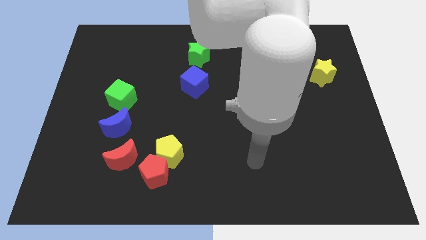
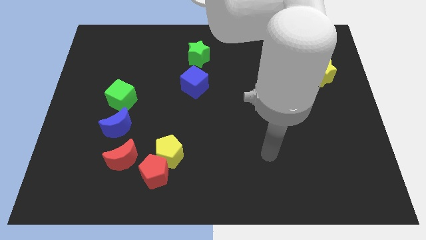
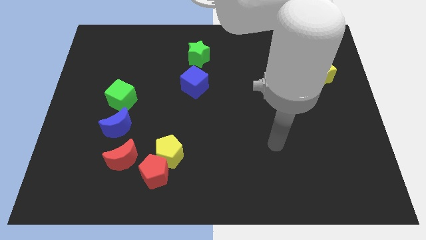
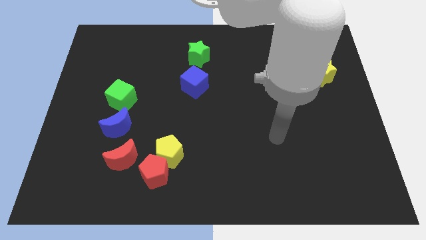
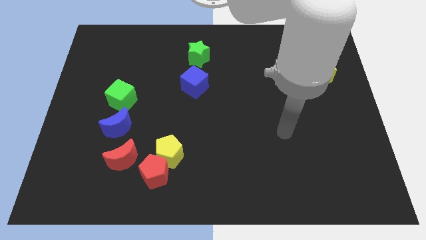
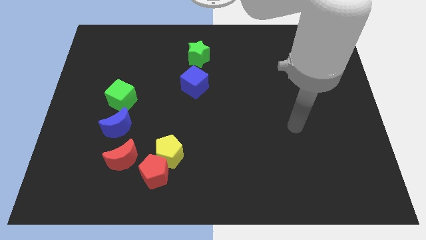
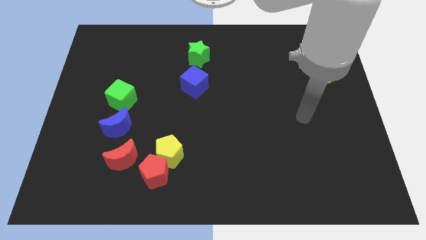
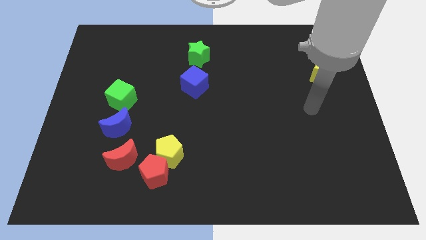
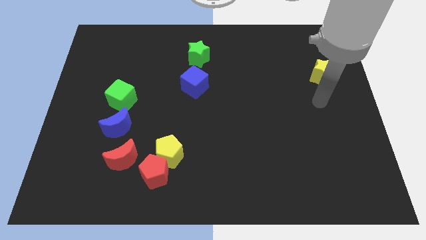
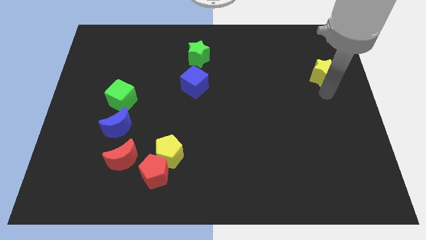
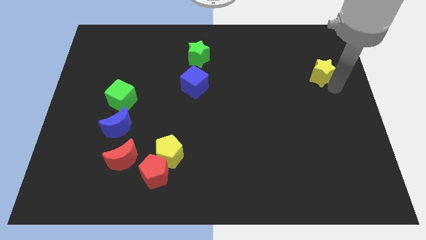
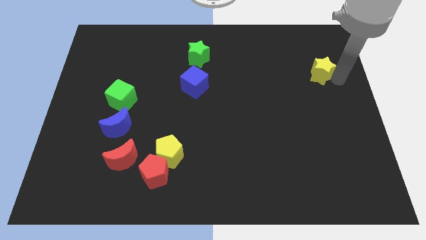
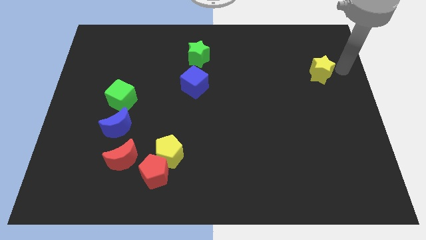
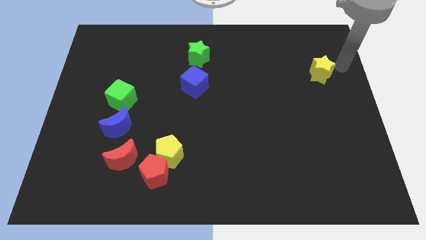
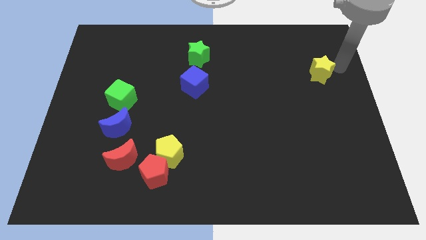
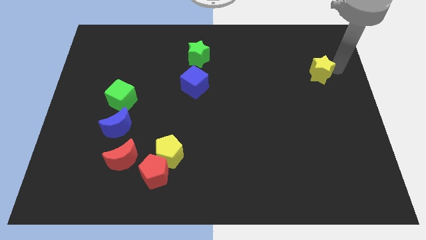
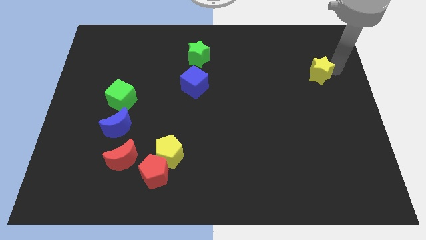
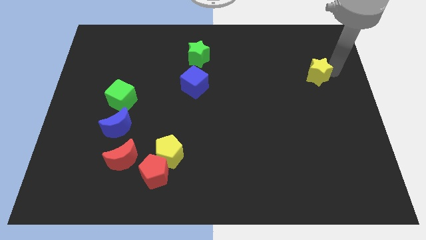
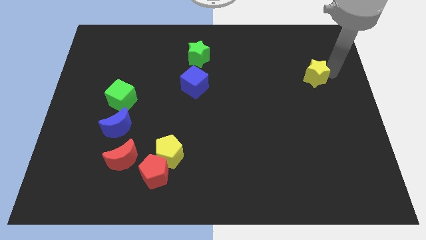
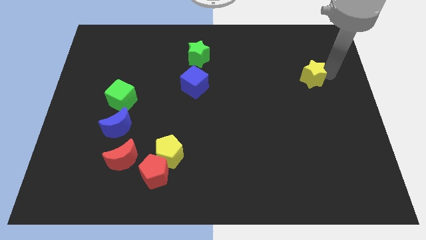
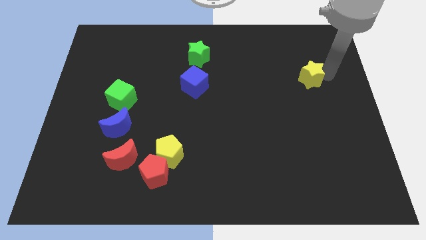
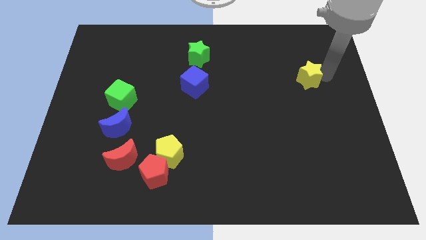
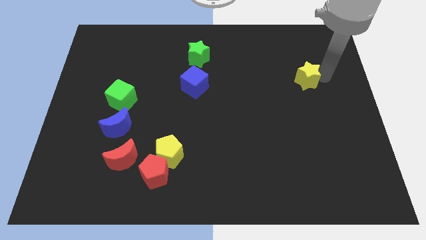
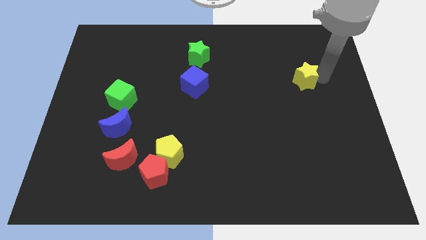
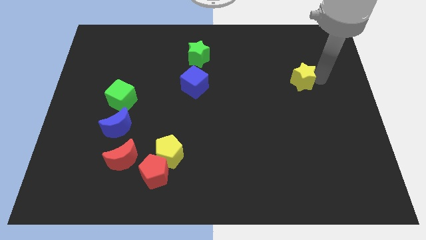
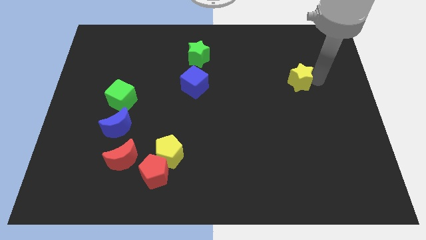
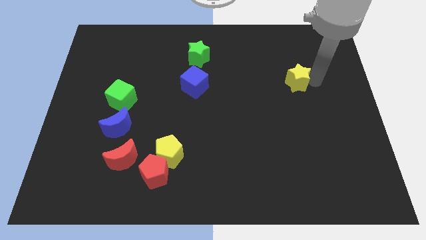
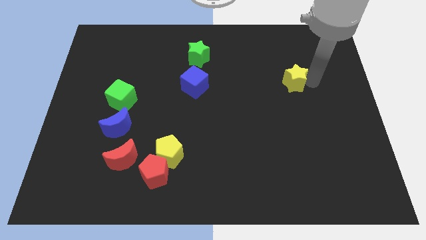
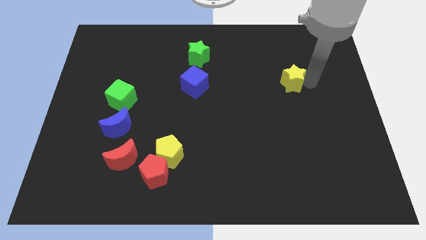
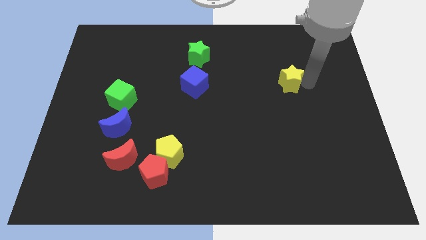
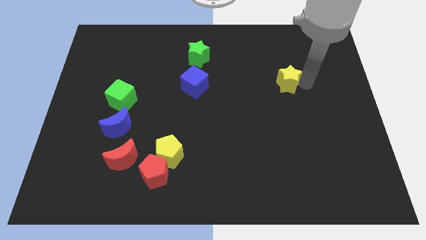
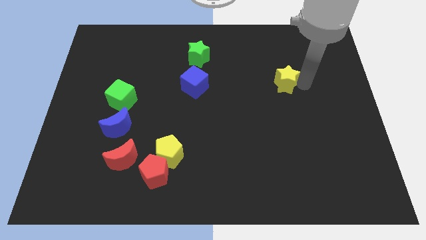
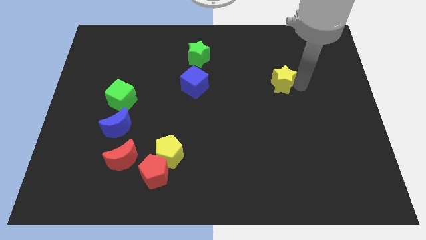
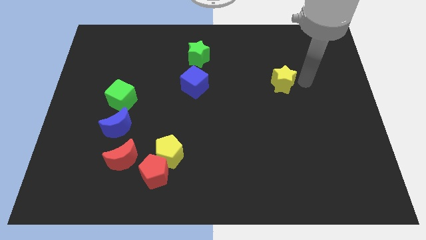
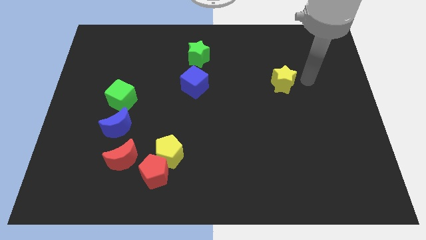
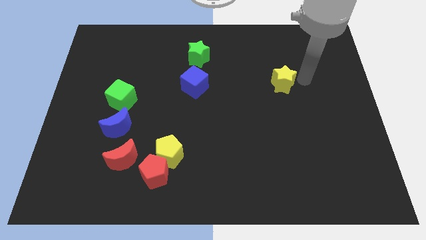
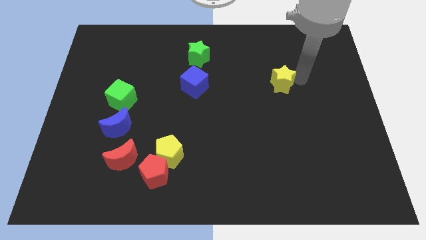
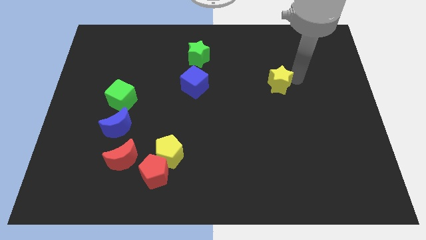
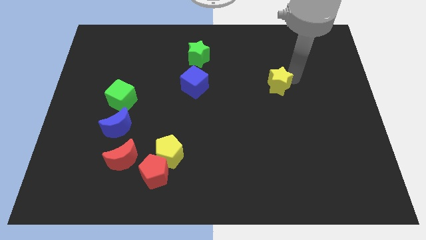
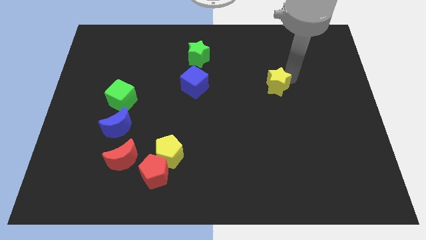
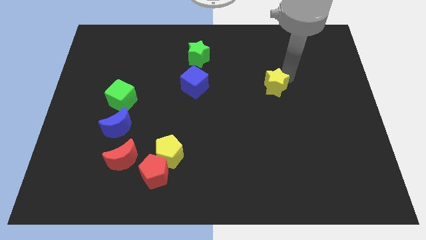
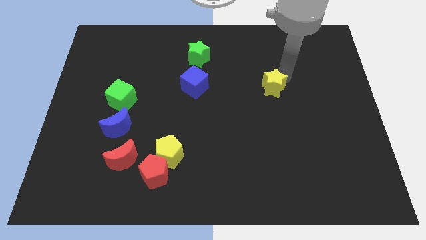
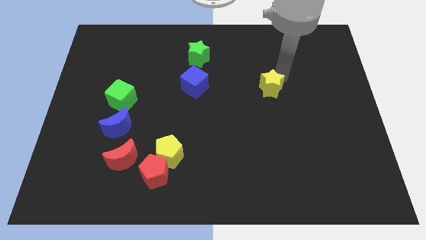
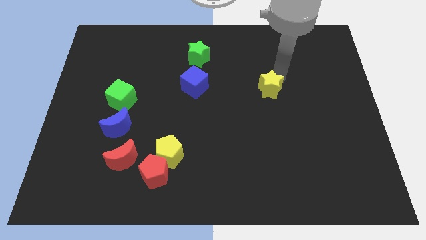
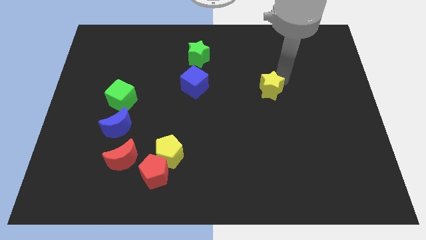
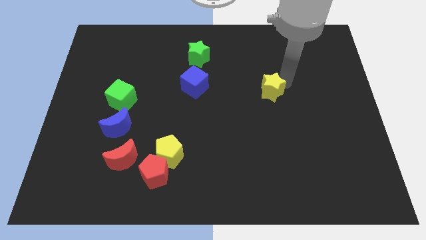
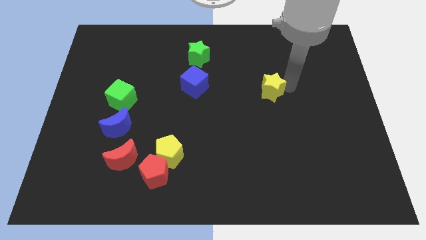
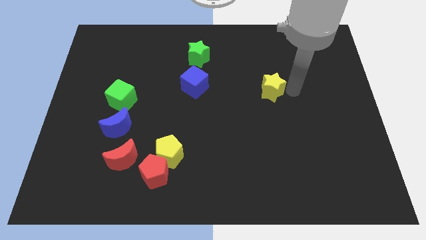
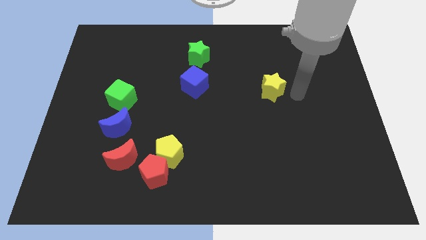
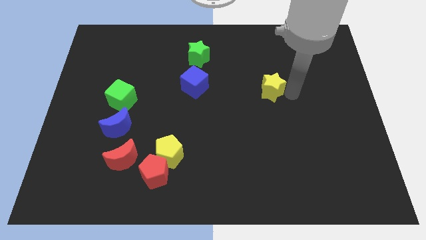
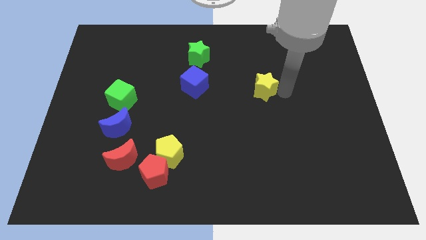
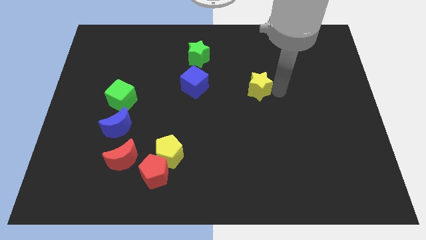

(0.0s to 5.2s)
push the yellow star to the center

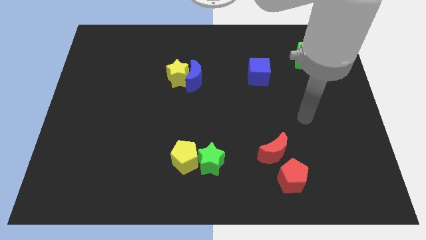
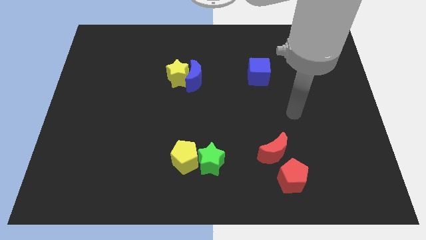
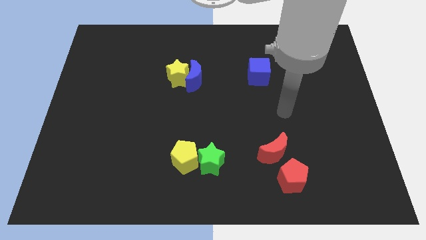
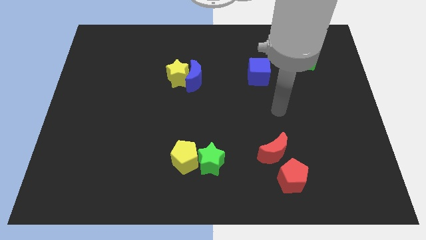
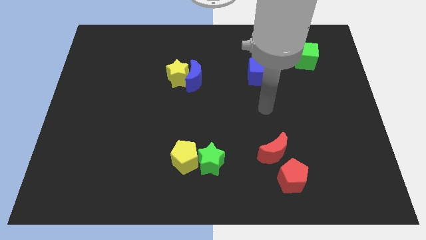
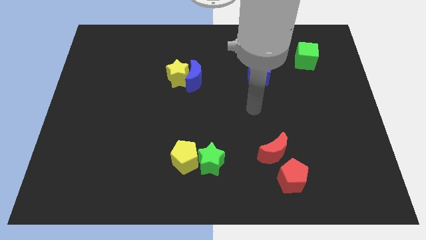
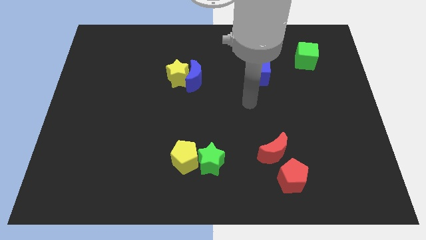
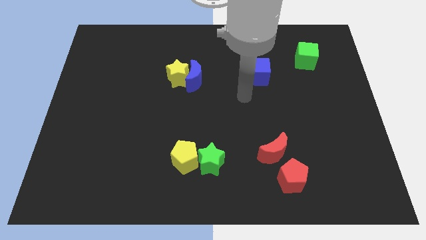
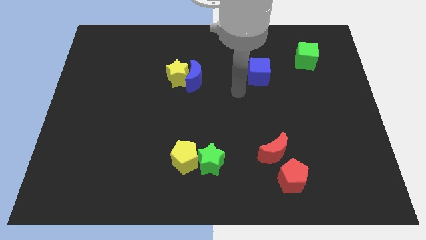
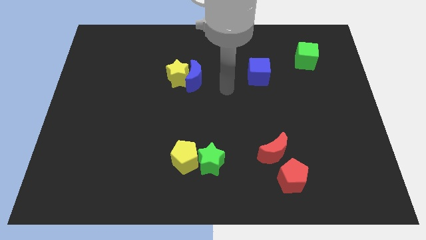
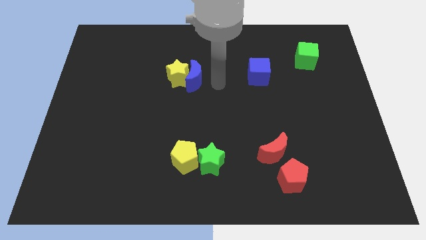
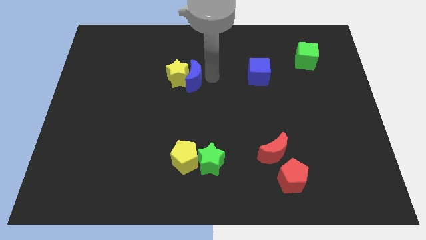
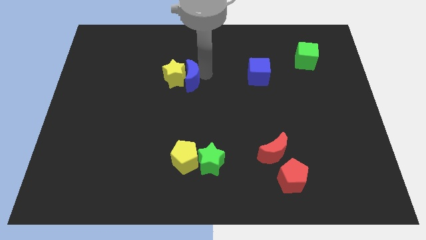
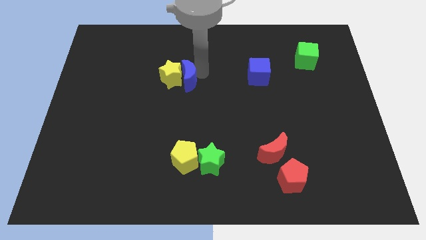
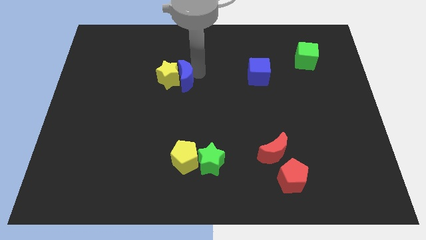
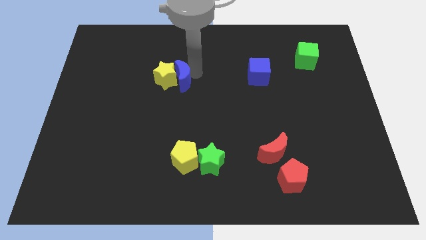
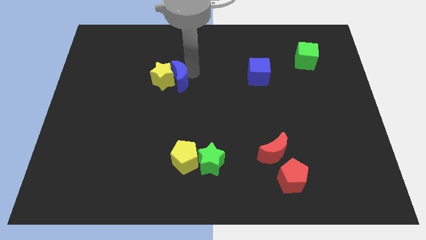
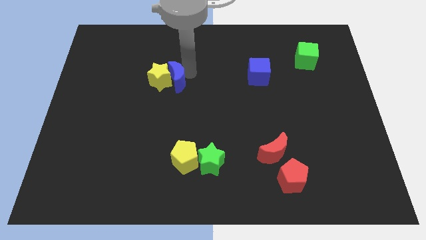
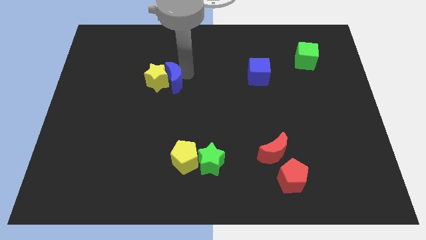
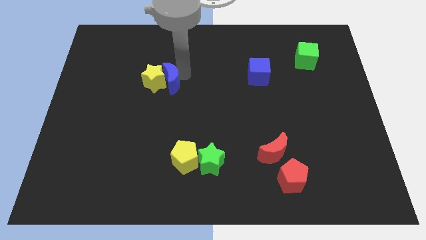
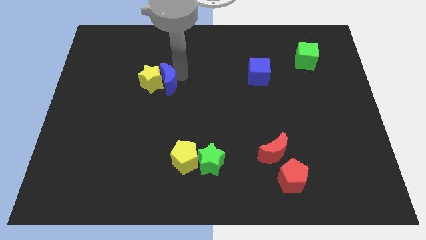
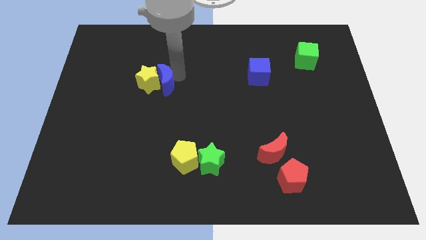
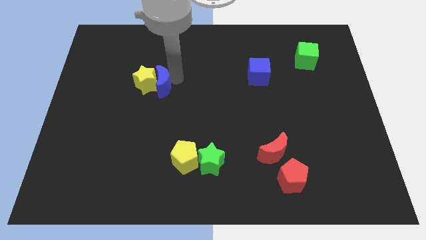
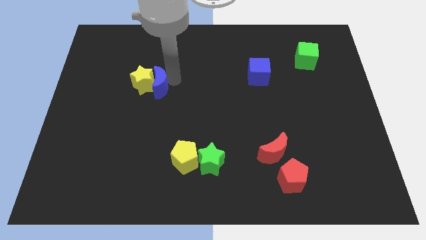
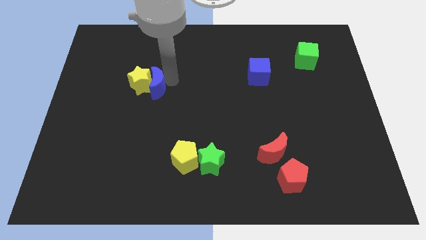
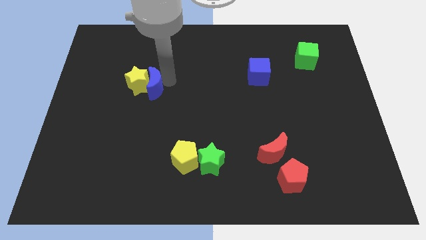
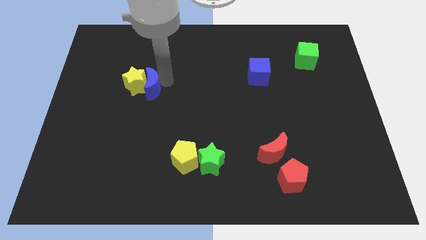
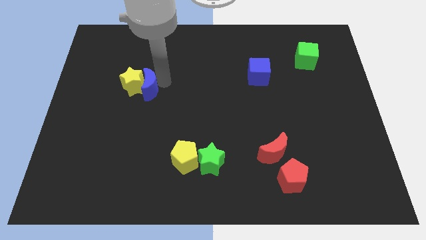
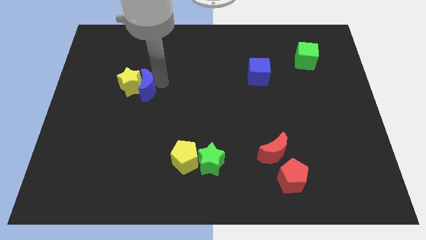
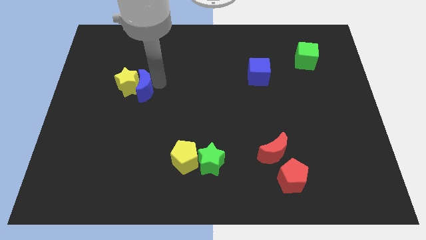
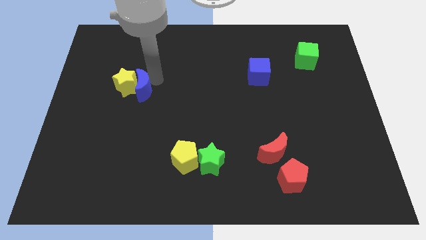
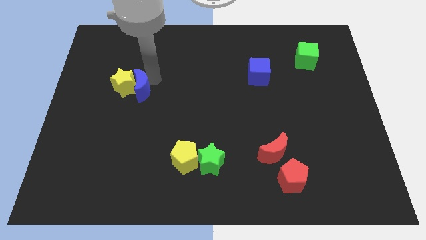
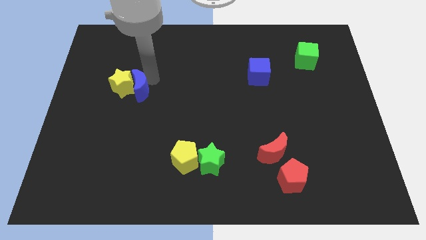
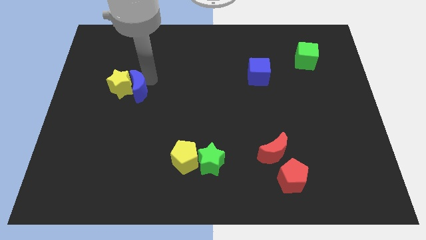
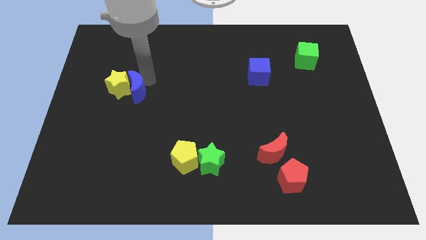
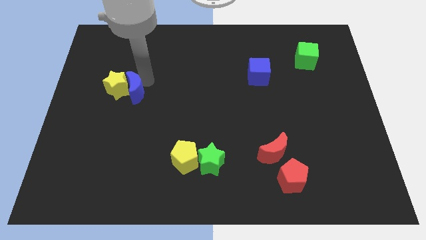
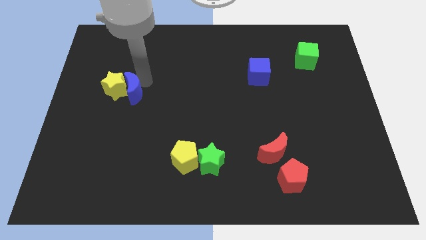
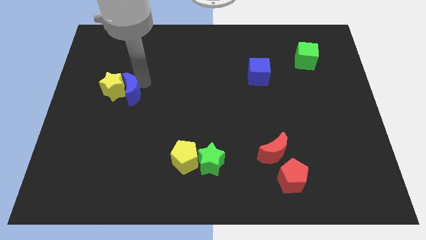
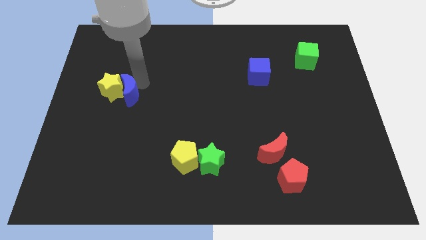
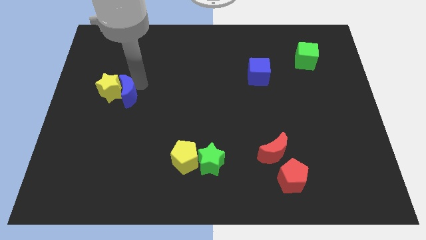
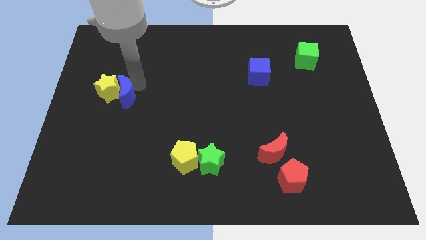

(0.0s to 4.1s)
move the yellow star to the left side of the board
